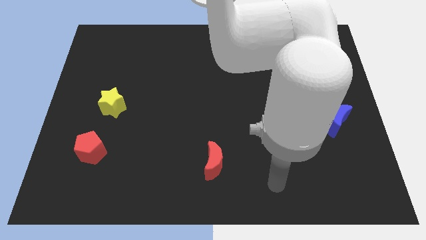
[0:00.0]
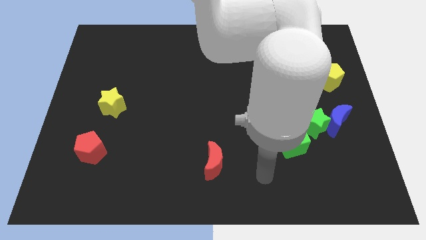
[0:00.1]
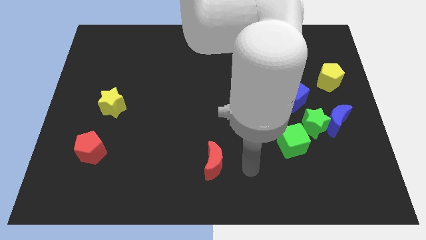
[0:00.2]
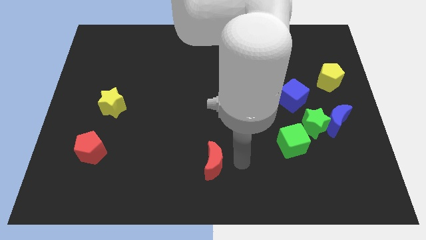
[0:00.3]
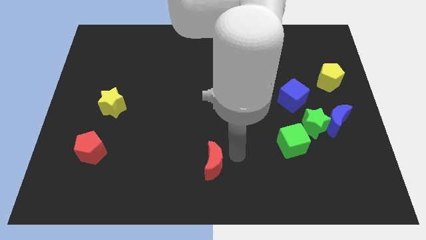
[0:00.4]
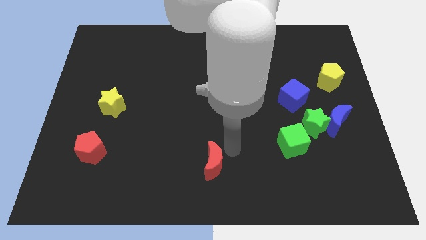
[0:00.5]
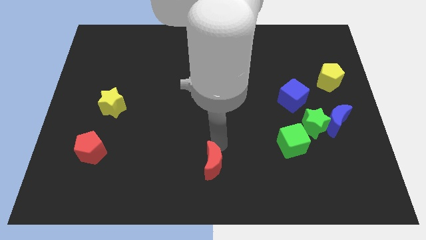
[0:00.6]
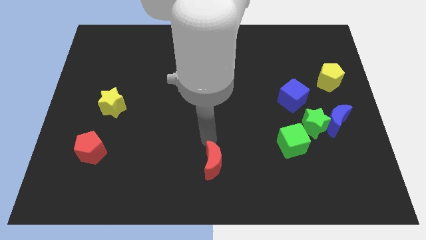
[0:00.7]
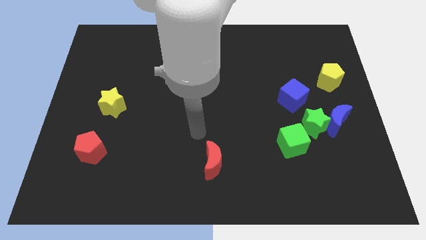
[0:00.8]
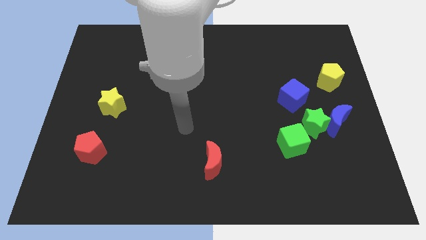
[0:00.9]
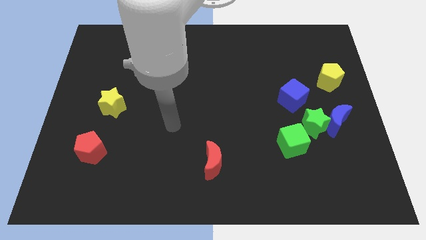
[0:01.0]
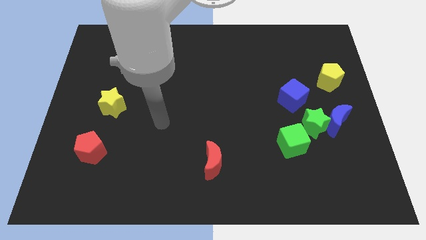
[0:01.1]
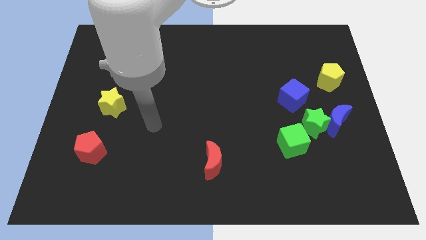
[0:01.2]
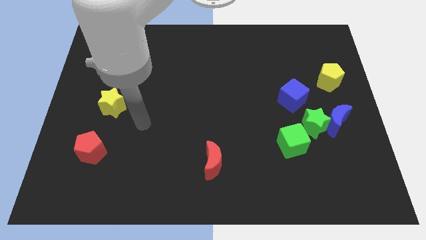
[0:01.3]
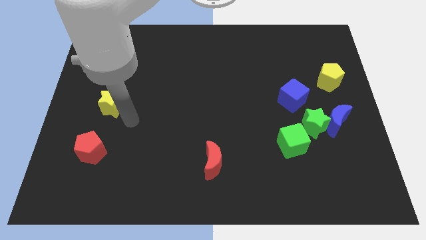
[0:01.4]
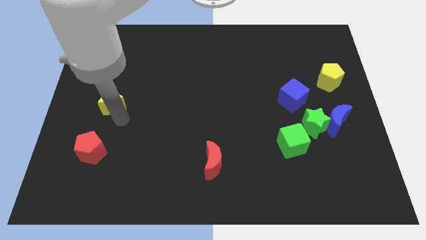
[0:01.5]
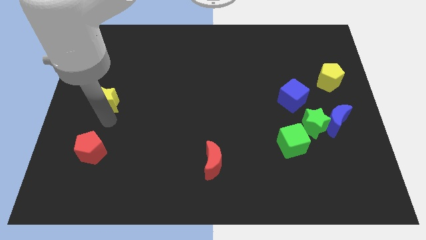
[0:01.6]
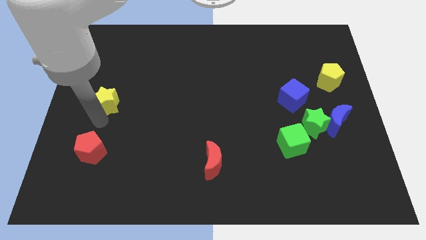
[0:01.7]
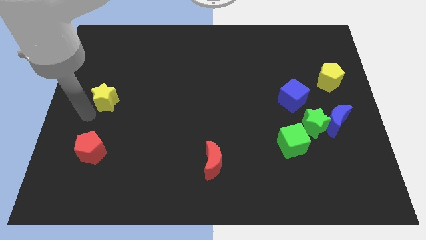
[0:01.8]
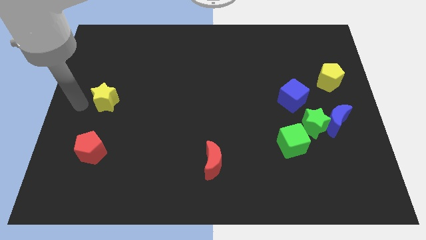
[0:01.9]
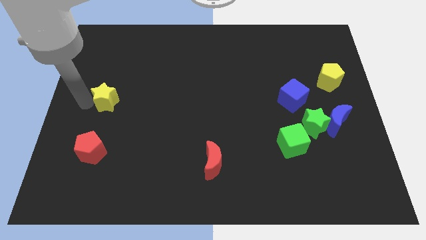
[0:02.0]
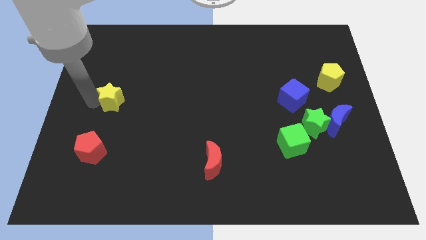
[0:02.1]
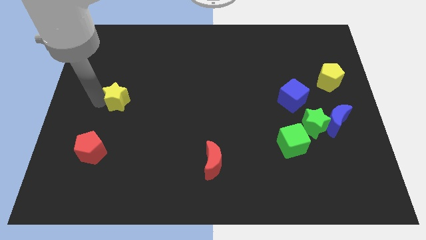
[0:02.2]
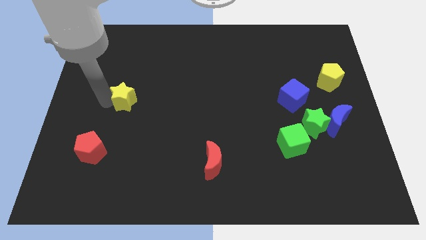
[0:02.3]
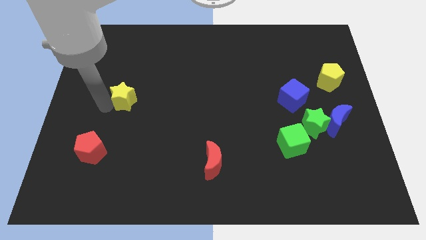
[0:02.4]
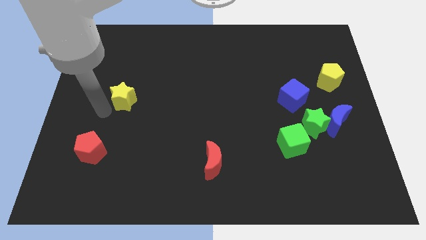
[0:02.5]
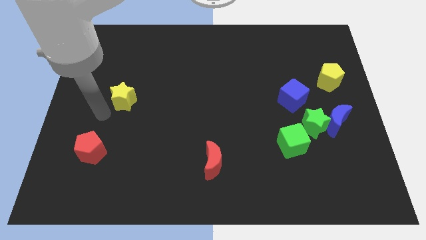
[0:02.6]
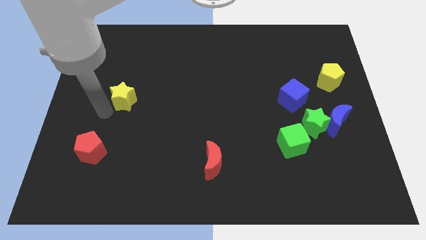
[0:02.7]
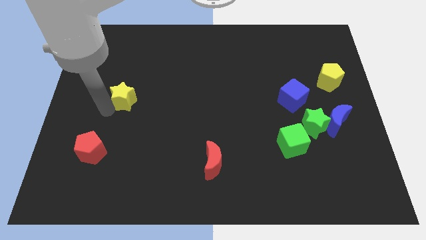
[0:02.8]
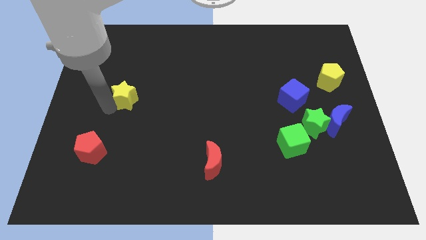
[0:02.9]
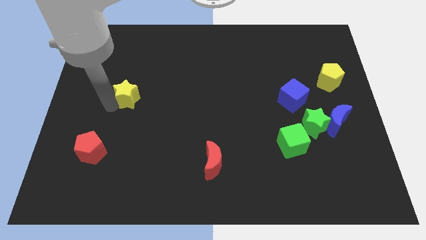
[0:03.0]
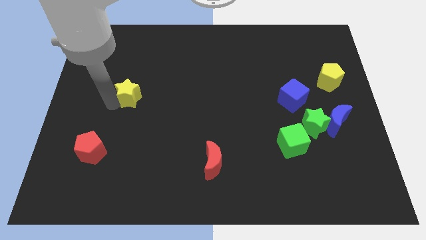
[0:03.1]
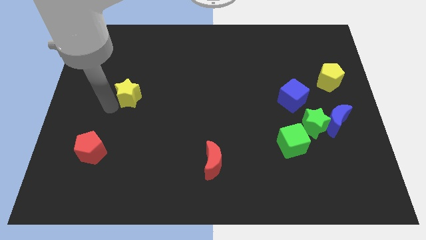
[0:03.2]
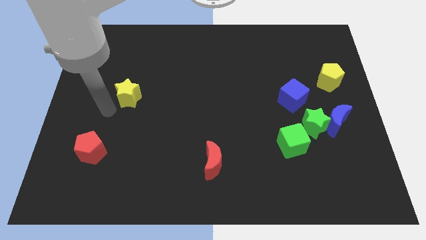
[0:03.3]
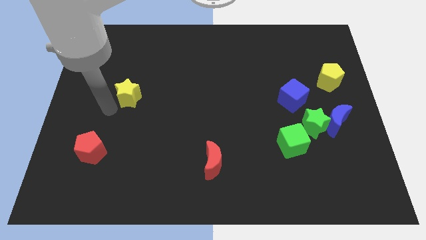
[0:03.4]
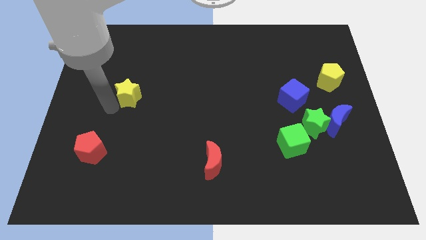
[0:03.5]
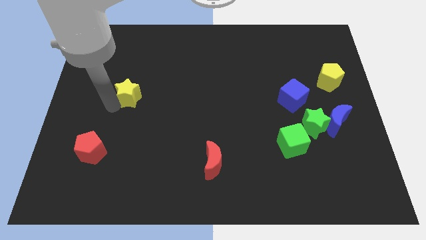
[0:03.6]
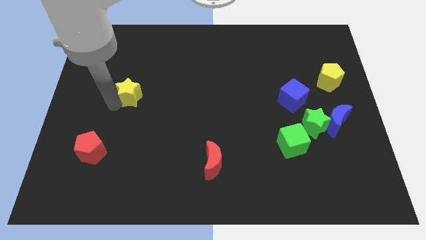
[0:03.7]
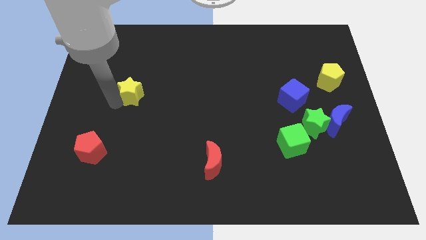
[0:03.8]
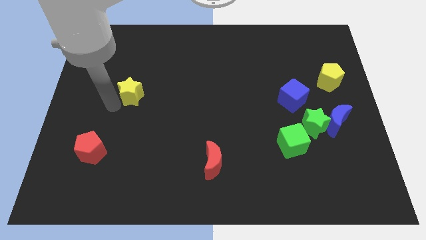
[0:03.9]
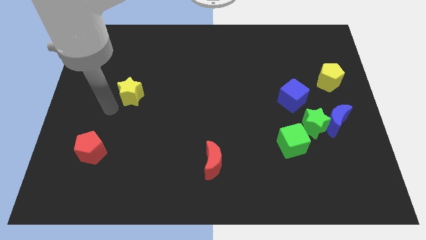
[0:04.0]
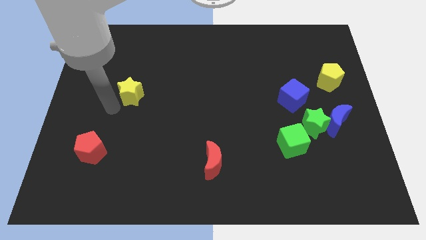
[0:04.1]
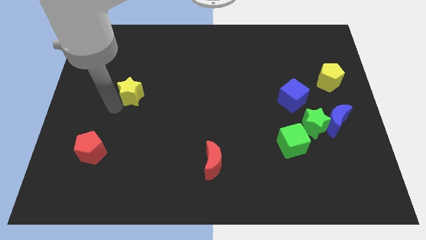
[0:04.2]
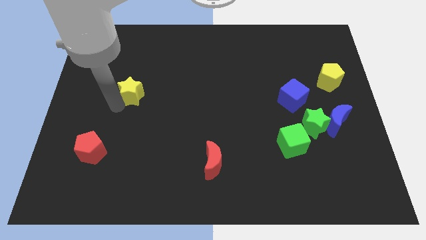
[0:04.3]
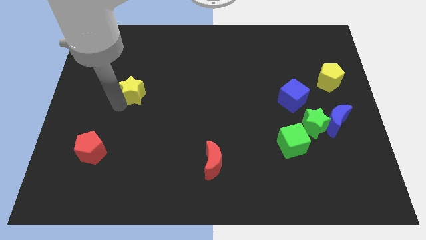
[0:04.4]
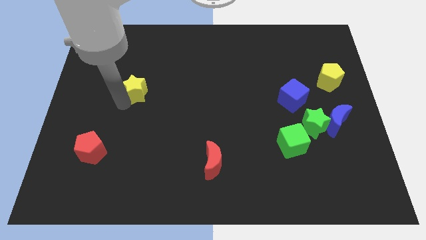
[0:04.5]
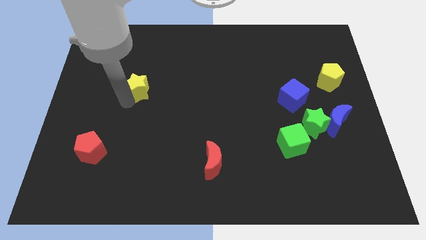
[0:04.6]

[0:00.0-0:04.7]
slightly slide the yellow star upwards and right diagonally

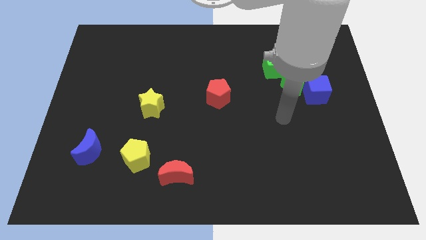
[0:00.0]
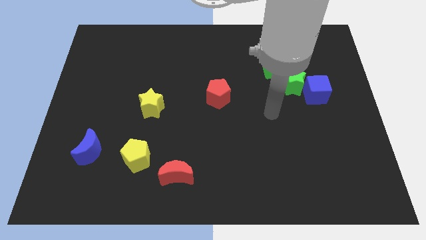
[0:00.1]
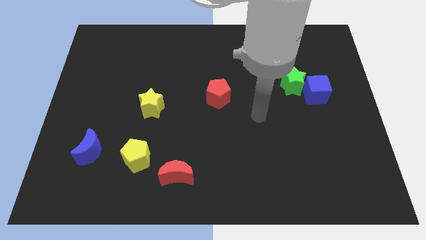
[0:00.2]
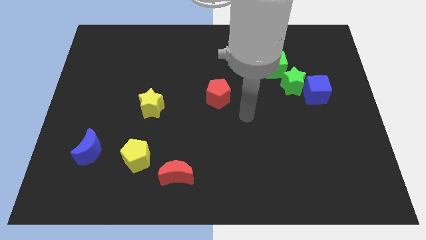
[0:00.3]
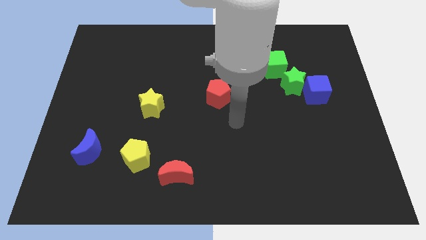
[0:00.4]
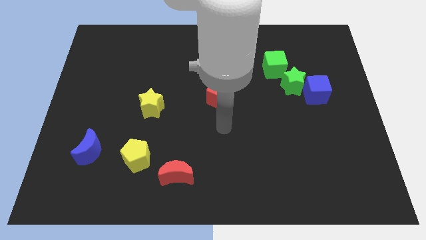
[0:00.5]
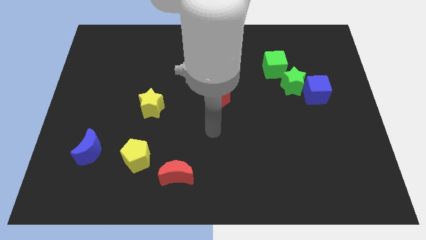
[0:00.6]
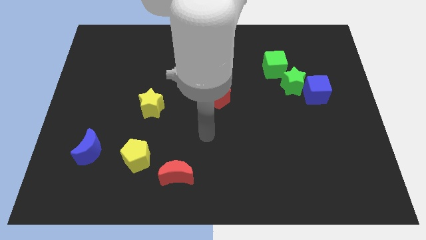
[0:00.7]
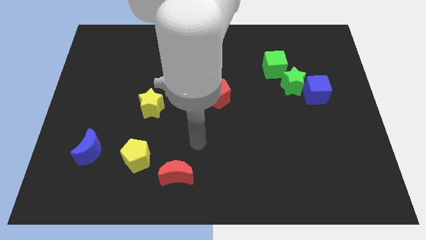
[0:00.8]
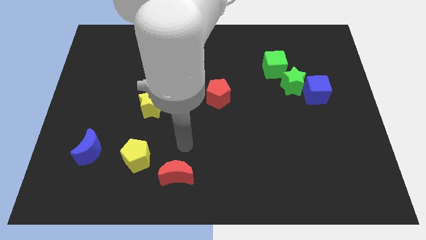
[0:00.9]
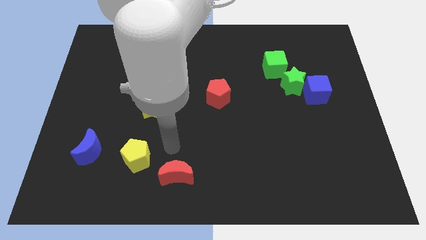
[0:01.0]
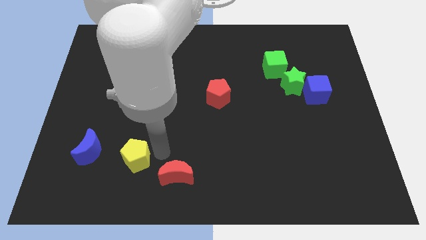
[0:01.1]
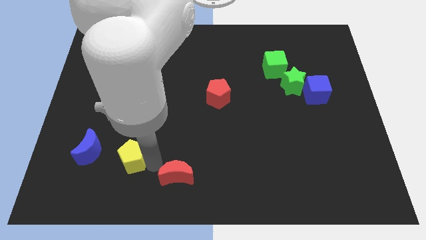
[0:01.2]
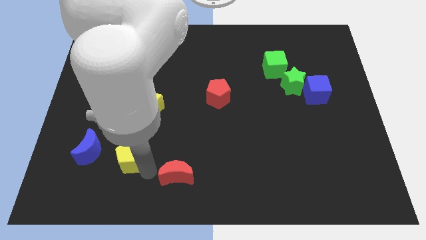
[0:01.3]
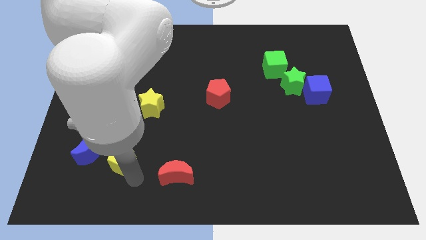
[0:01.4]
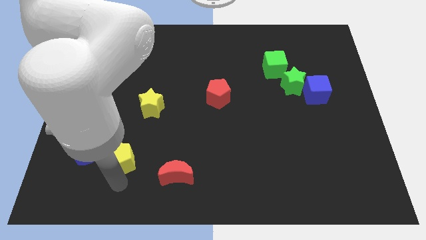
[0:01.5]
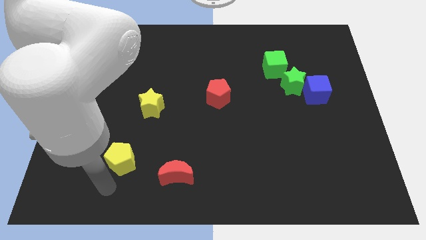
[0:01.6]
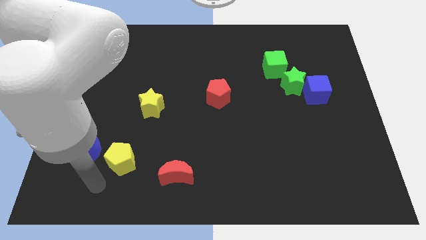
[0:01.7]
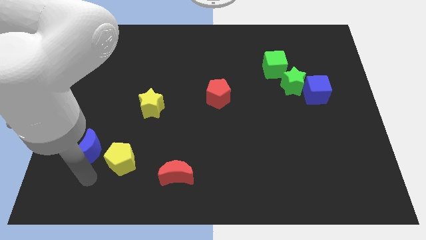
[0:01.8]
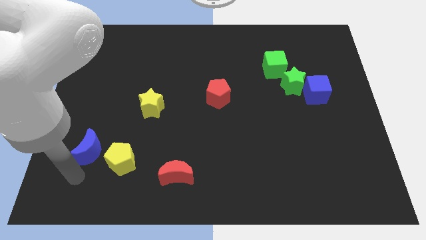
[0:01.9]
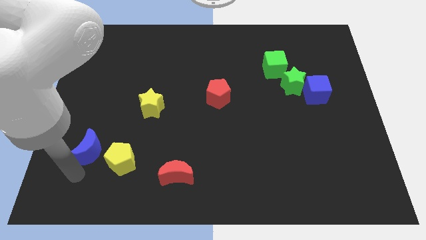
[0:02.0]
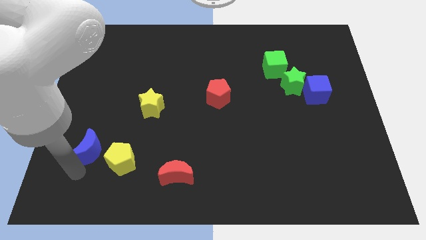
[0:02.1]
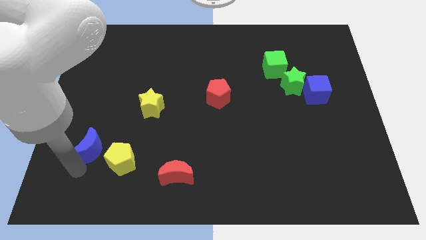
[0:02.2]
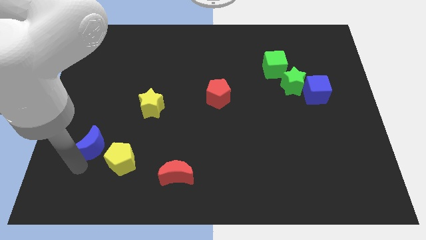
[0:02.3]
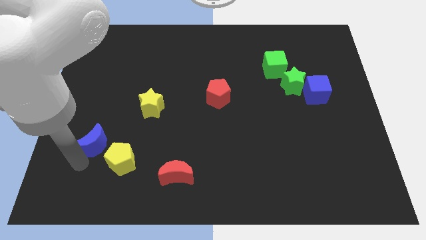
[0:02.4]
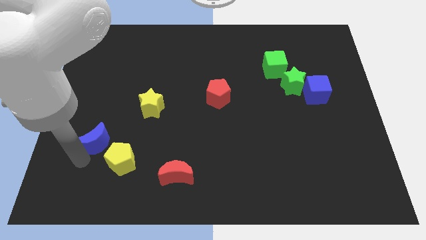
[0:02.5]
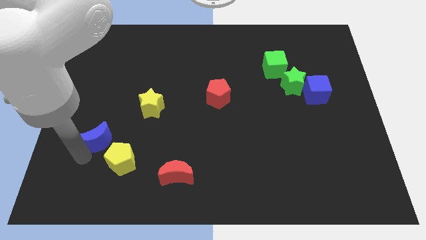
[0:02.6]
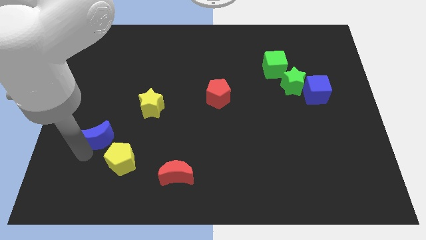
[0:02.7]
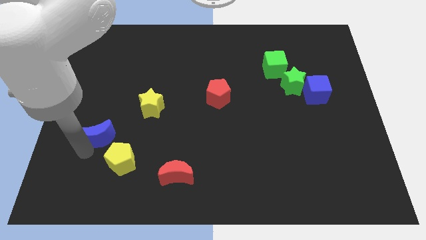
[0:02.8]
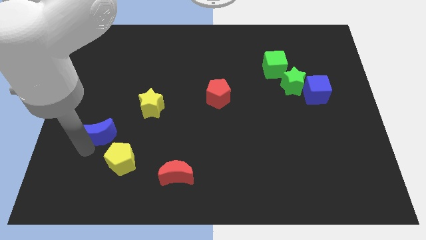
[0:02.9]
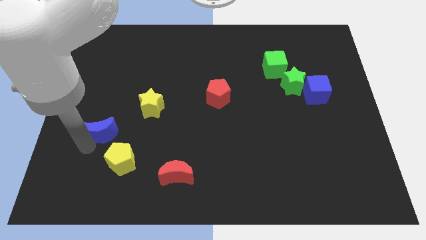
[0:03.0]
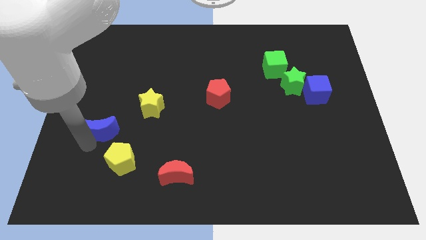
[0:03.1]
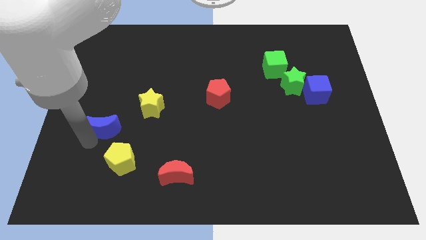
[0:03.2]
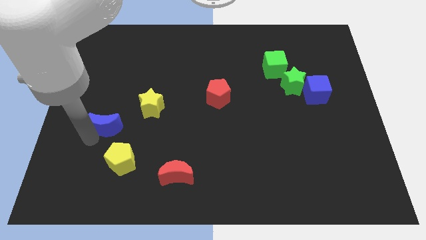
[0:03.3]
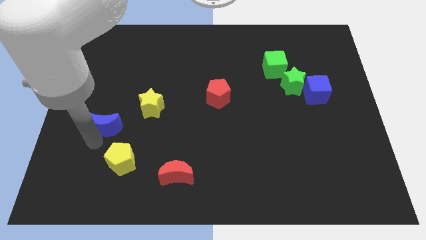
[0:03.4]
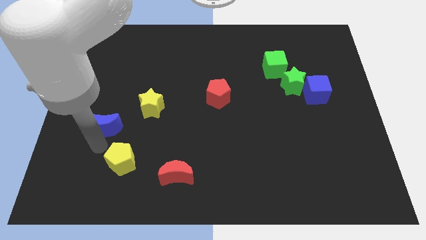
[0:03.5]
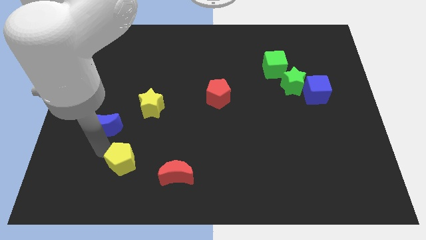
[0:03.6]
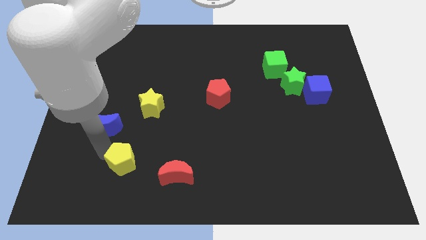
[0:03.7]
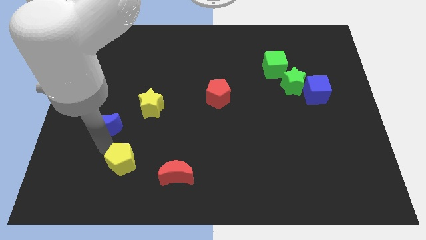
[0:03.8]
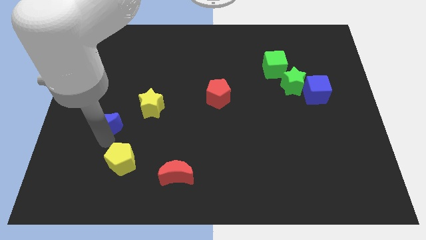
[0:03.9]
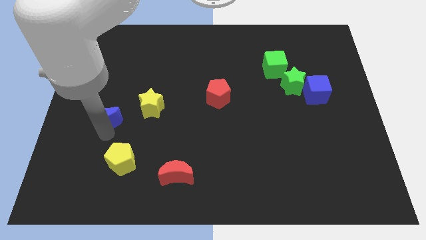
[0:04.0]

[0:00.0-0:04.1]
slightly push the blue moon upwards
